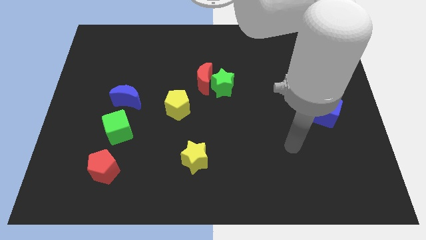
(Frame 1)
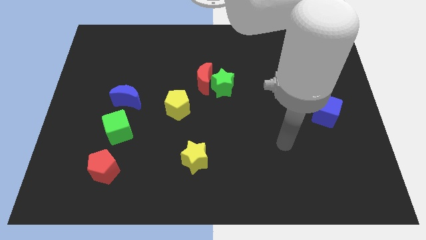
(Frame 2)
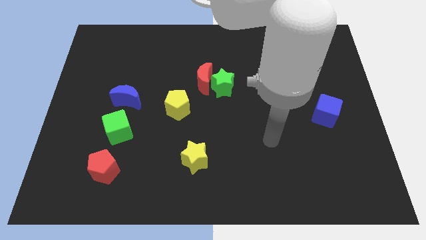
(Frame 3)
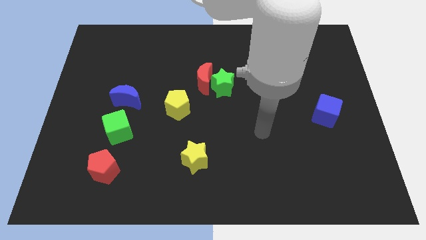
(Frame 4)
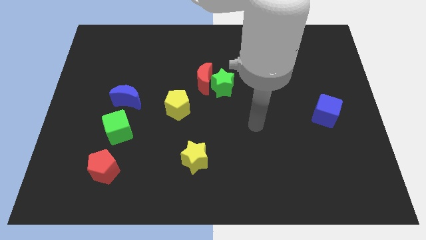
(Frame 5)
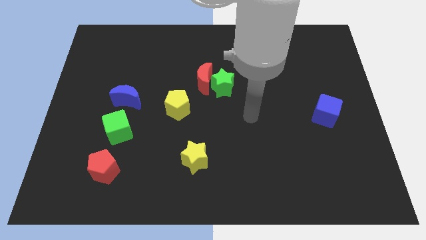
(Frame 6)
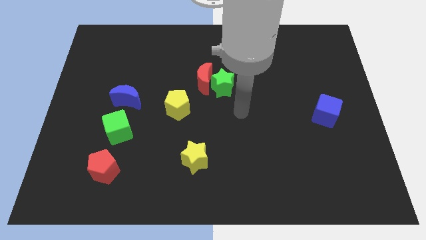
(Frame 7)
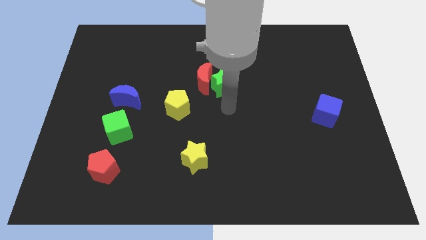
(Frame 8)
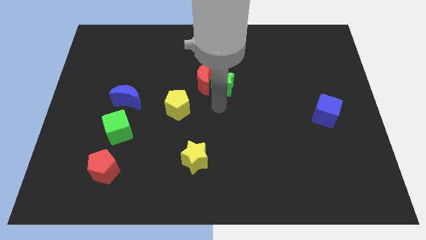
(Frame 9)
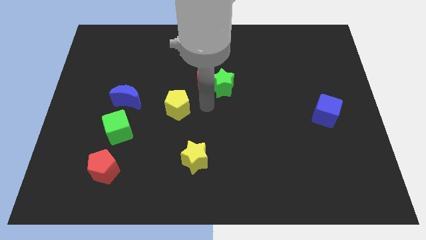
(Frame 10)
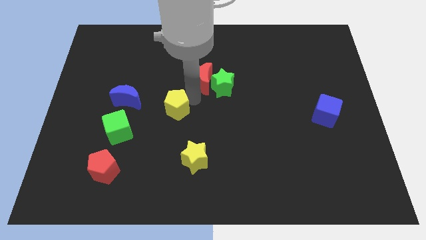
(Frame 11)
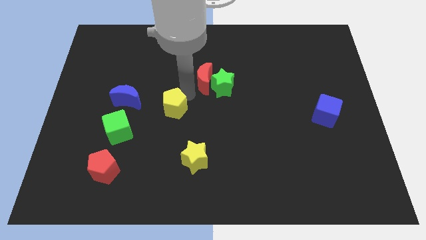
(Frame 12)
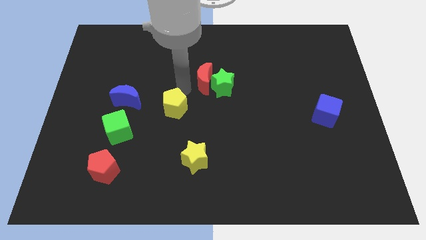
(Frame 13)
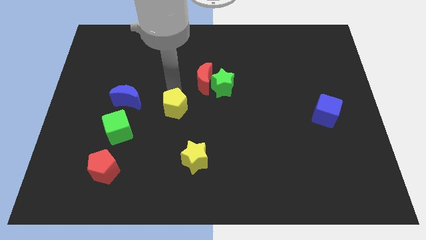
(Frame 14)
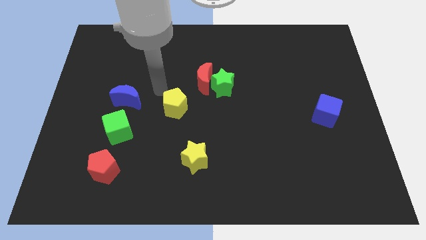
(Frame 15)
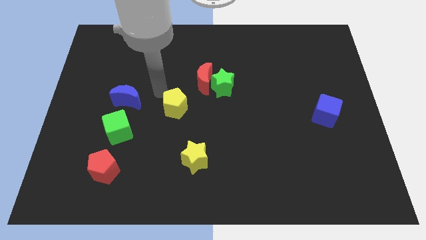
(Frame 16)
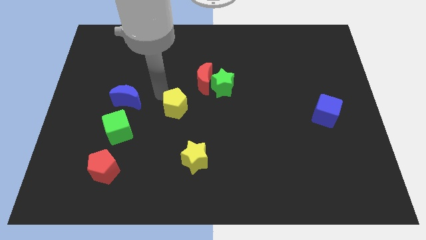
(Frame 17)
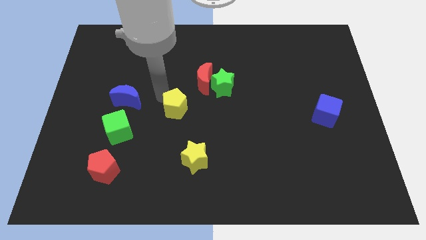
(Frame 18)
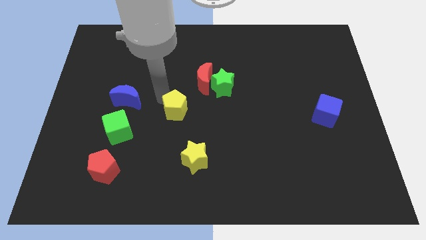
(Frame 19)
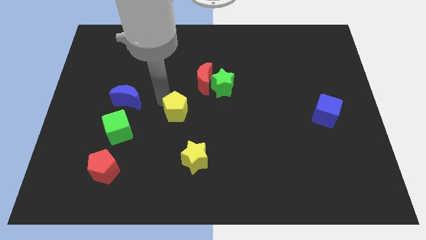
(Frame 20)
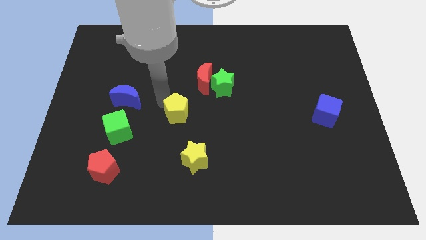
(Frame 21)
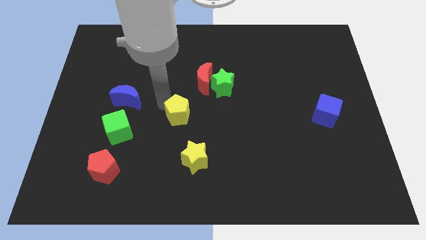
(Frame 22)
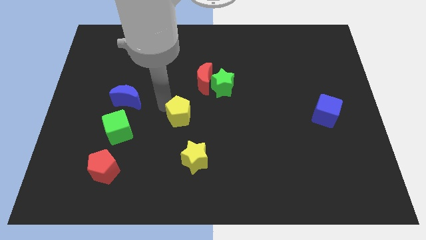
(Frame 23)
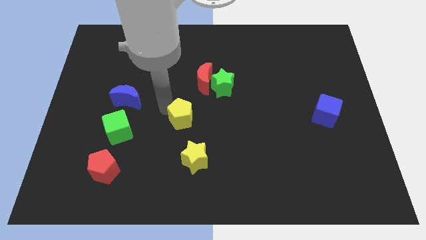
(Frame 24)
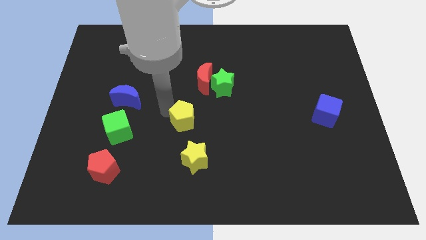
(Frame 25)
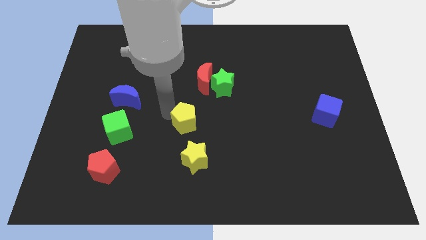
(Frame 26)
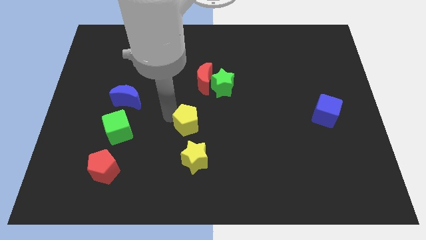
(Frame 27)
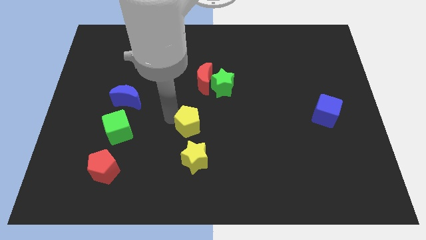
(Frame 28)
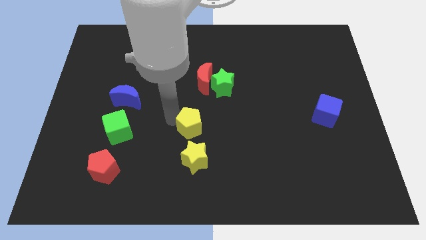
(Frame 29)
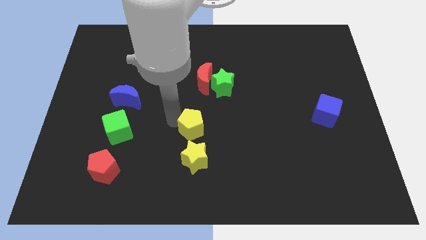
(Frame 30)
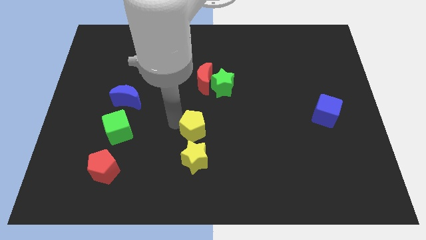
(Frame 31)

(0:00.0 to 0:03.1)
push the yellow pentagon downwards and right diagonally slightly

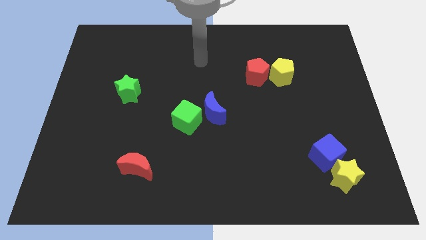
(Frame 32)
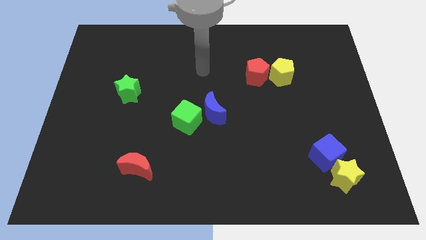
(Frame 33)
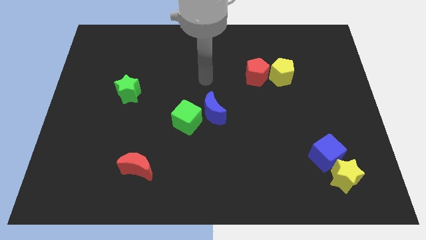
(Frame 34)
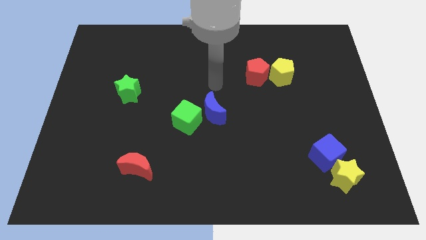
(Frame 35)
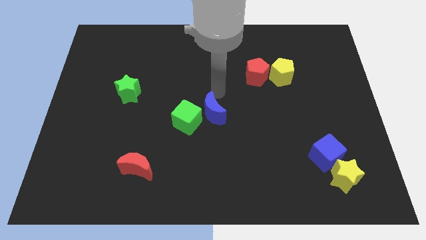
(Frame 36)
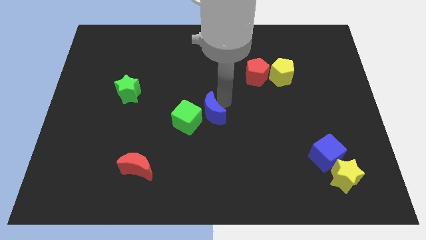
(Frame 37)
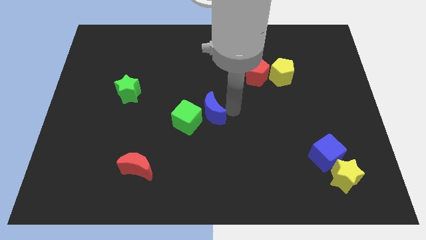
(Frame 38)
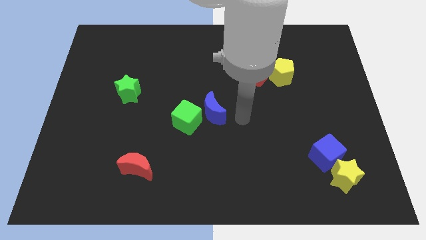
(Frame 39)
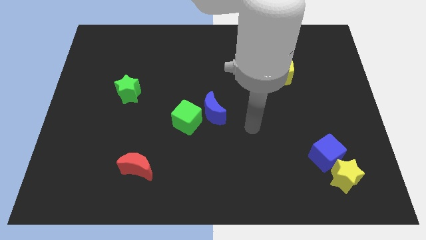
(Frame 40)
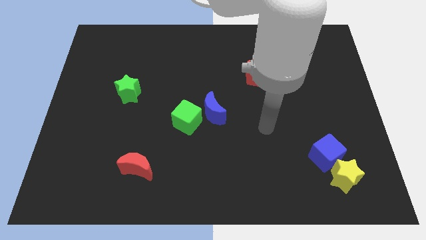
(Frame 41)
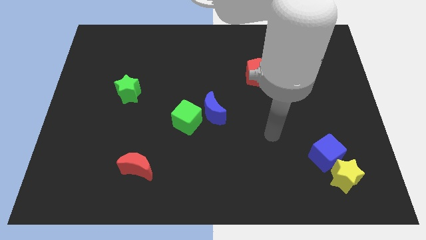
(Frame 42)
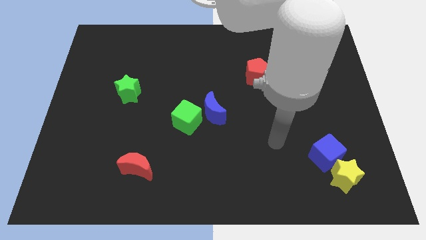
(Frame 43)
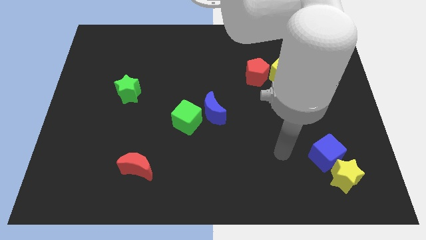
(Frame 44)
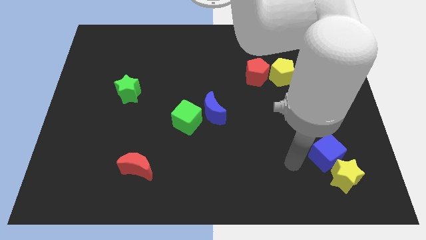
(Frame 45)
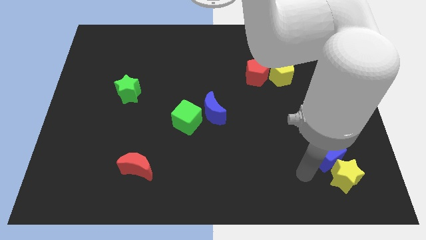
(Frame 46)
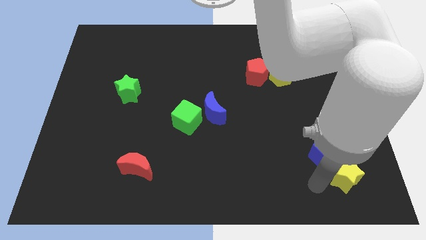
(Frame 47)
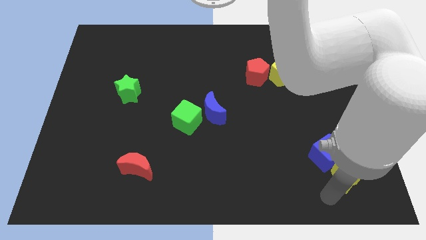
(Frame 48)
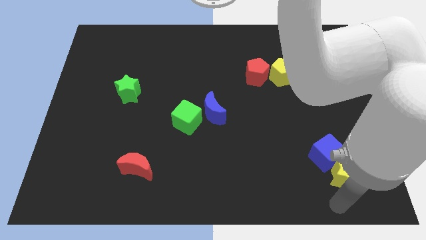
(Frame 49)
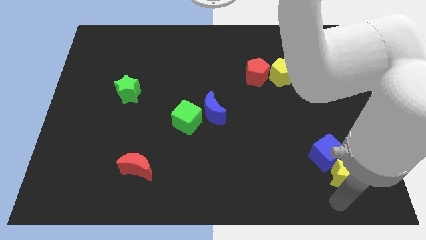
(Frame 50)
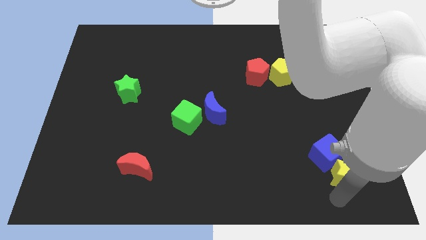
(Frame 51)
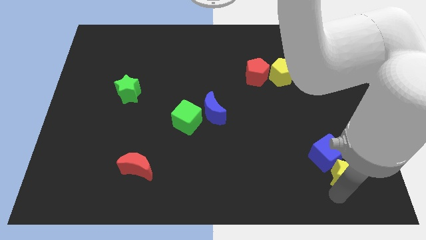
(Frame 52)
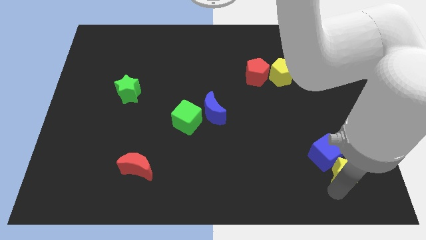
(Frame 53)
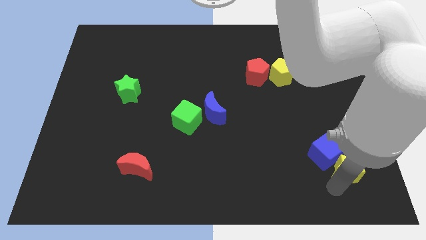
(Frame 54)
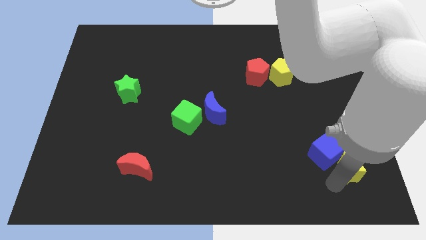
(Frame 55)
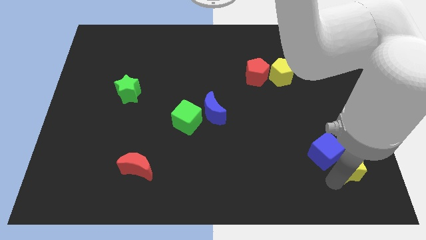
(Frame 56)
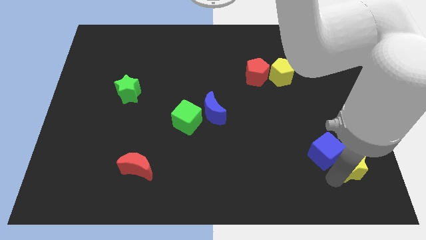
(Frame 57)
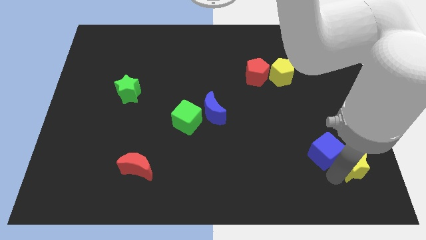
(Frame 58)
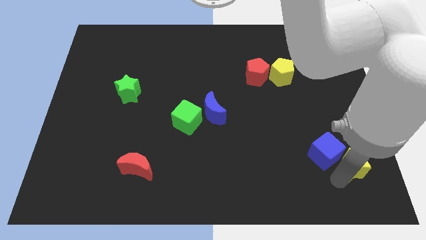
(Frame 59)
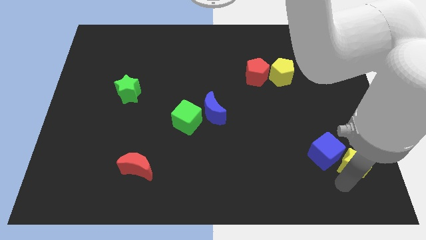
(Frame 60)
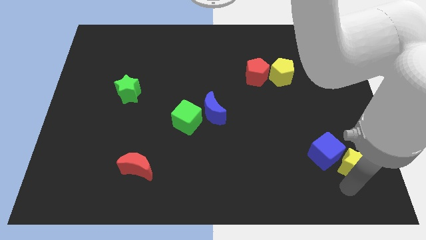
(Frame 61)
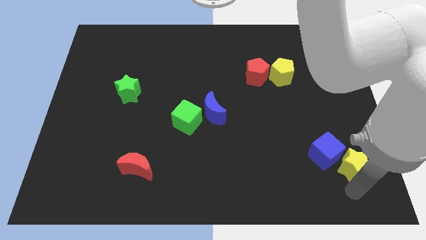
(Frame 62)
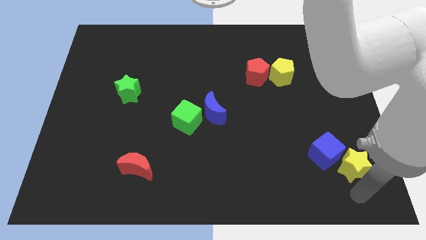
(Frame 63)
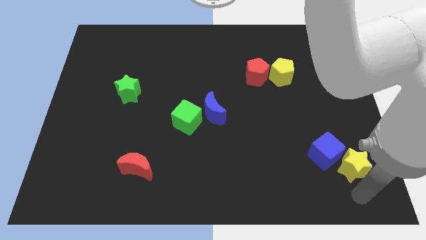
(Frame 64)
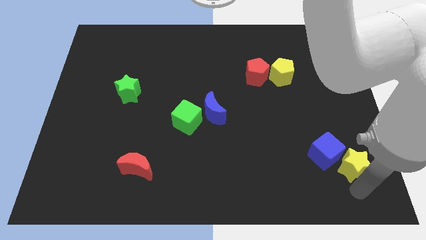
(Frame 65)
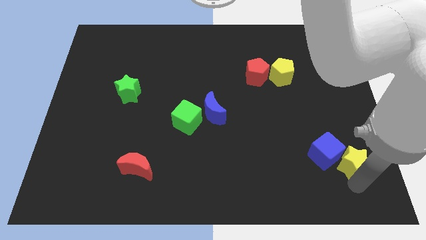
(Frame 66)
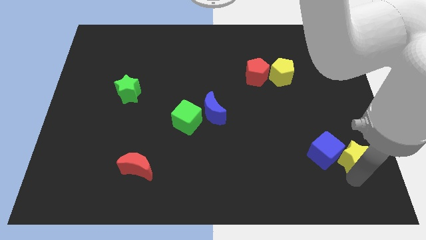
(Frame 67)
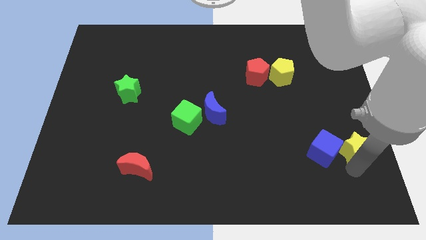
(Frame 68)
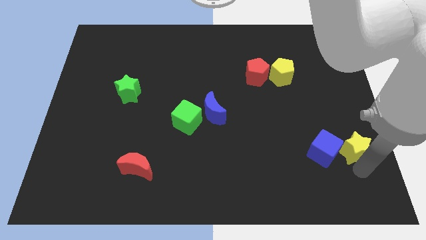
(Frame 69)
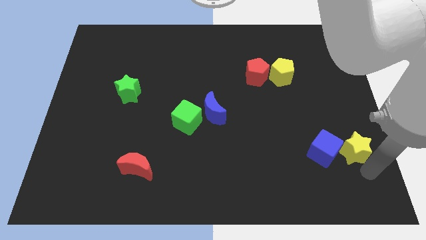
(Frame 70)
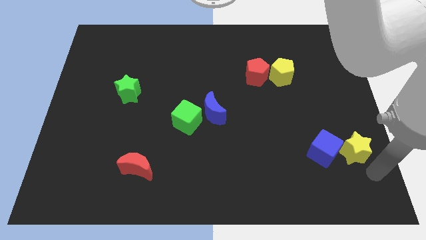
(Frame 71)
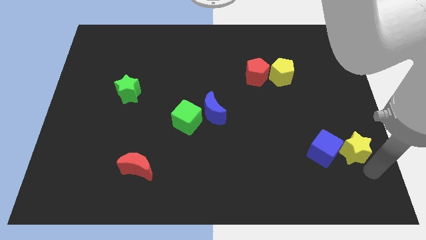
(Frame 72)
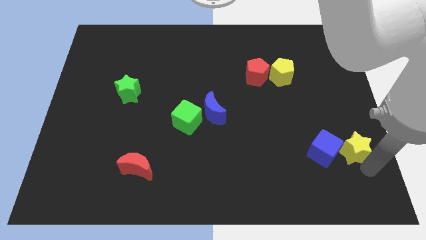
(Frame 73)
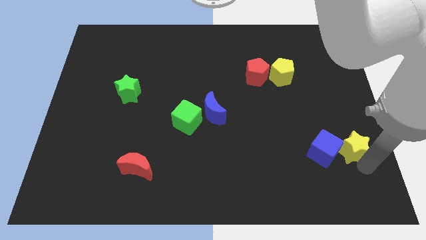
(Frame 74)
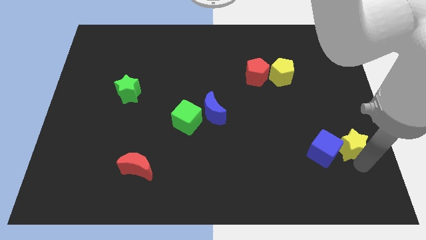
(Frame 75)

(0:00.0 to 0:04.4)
push the yellow star slightly upwards

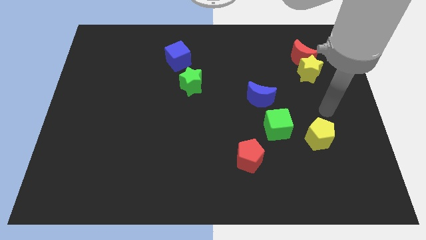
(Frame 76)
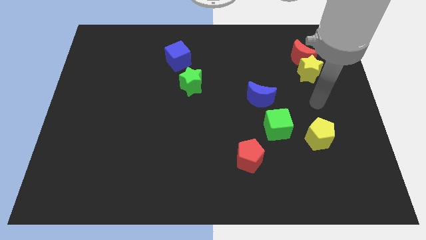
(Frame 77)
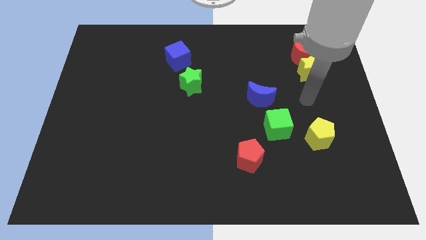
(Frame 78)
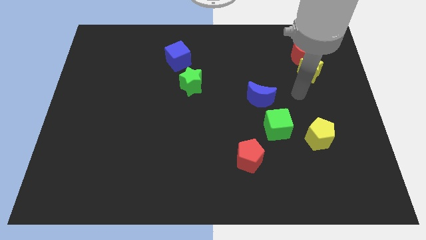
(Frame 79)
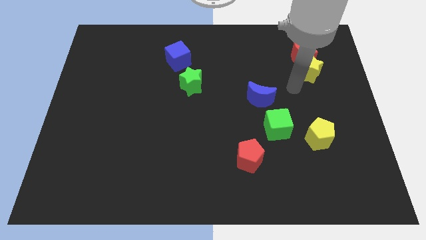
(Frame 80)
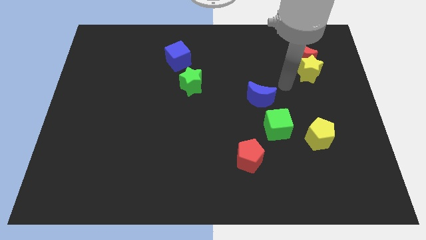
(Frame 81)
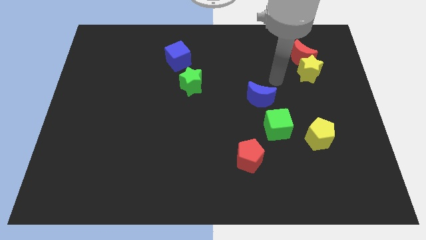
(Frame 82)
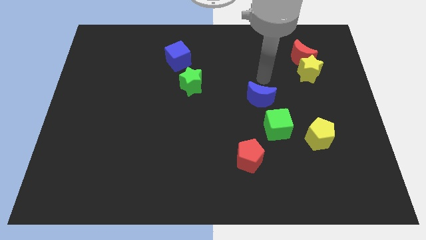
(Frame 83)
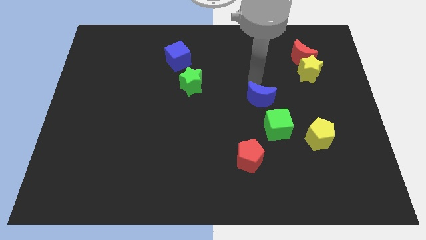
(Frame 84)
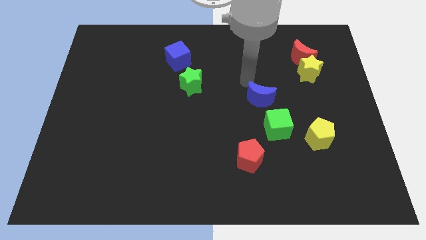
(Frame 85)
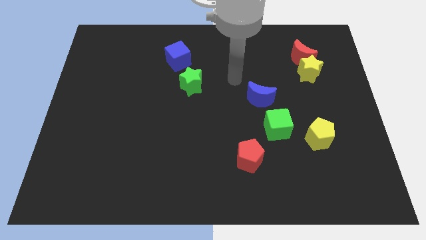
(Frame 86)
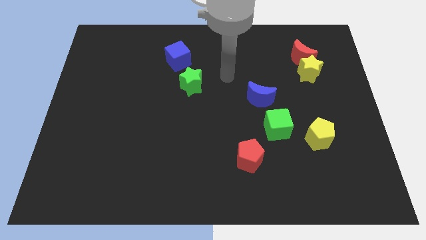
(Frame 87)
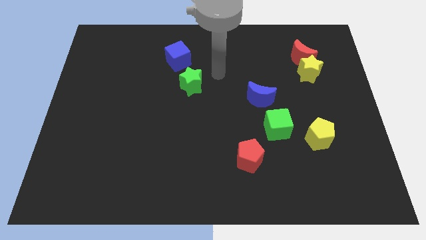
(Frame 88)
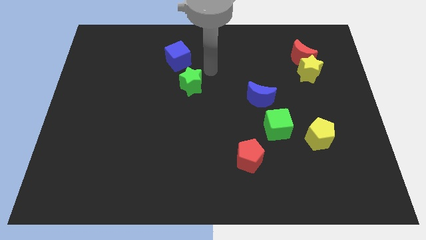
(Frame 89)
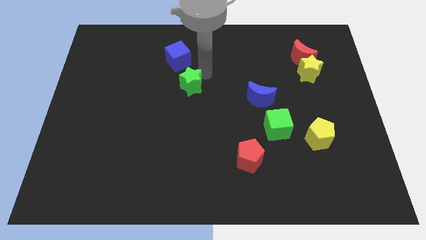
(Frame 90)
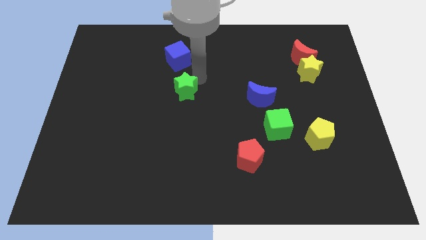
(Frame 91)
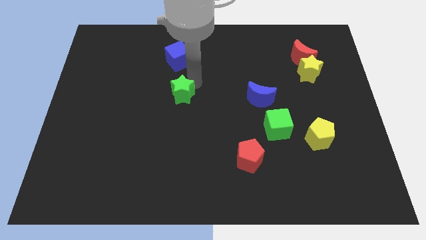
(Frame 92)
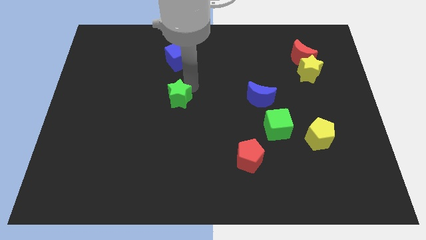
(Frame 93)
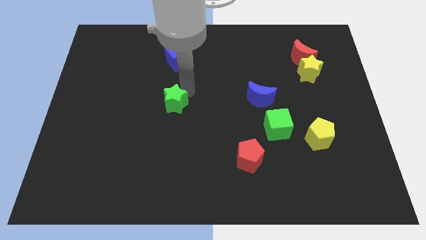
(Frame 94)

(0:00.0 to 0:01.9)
move the green star a bit diagonally down and left
